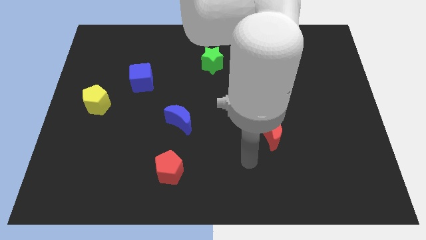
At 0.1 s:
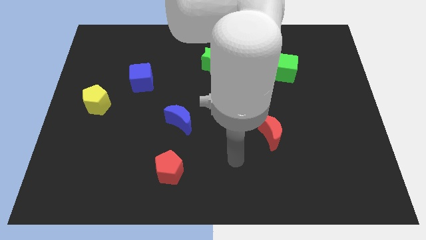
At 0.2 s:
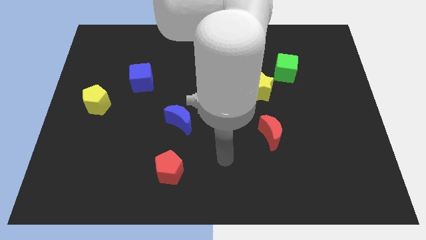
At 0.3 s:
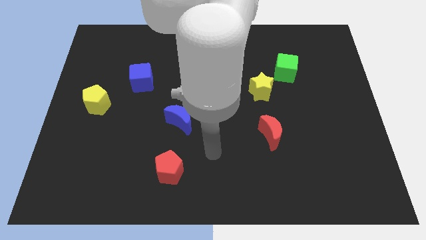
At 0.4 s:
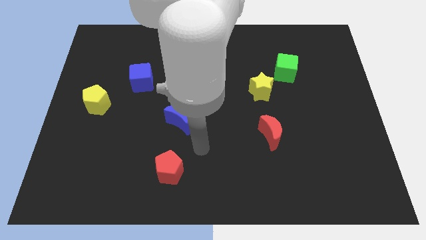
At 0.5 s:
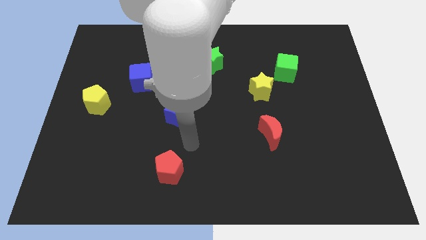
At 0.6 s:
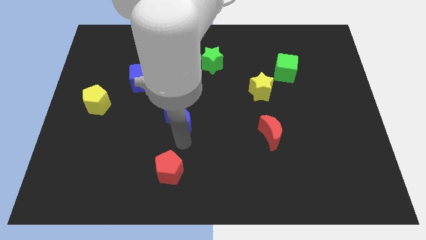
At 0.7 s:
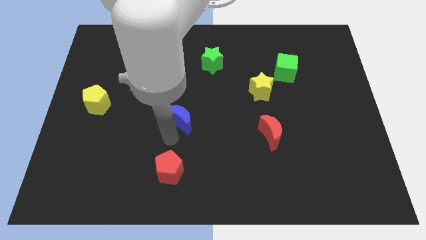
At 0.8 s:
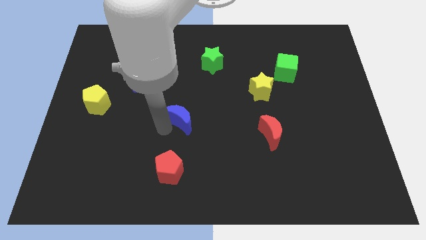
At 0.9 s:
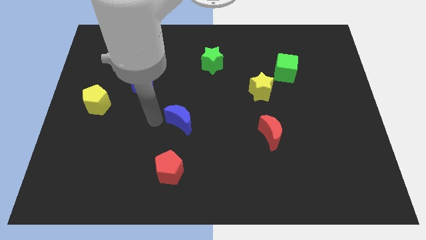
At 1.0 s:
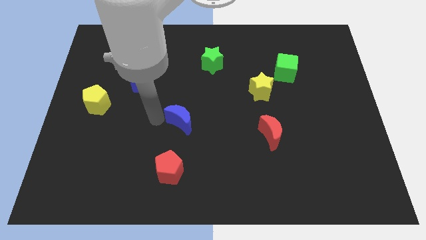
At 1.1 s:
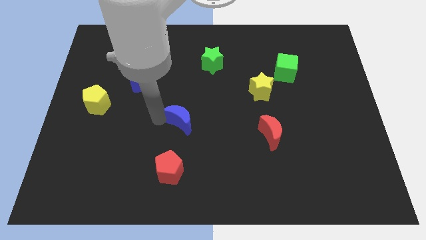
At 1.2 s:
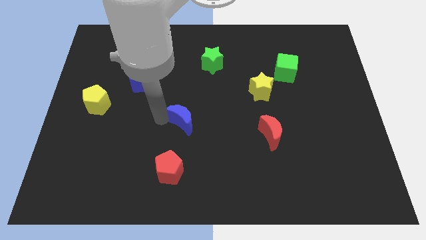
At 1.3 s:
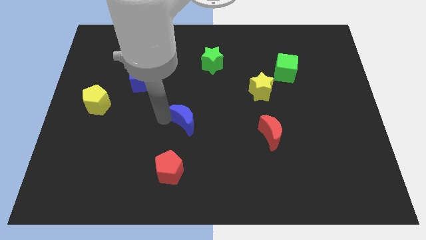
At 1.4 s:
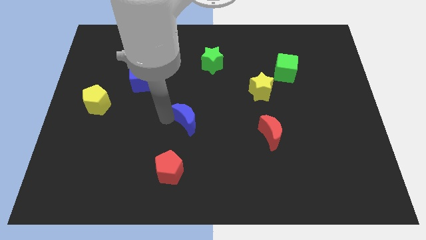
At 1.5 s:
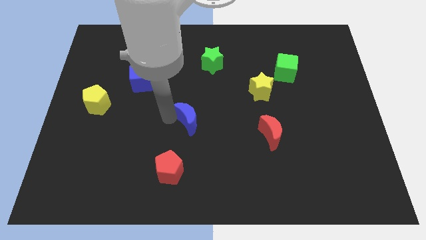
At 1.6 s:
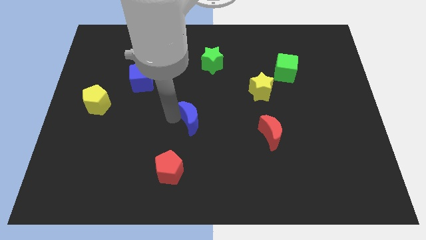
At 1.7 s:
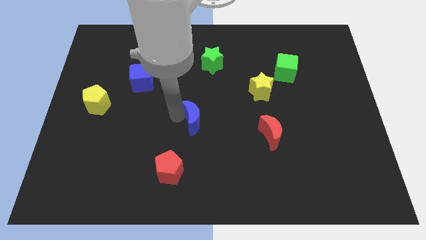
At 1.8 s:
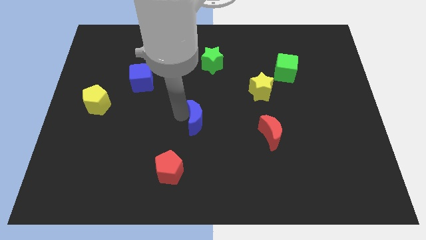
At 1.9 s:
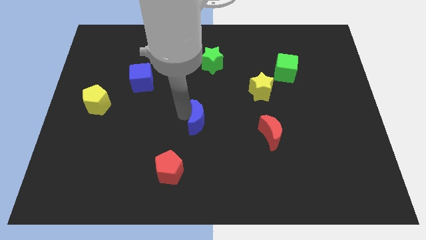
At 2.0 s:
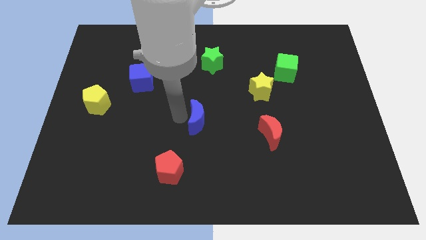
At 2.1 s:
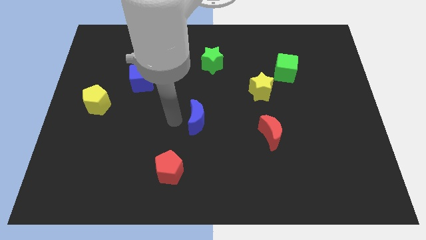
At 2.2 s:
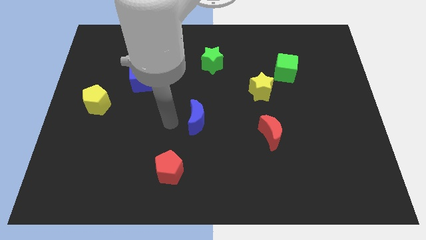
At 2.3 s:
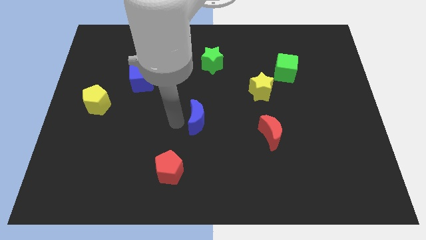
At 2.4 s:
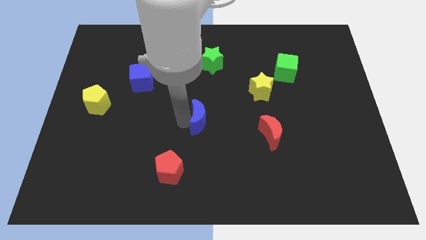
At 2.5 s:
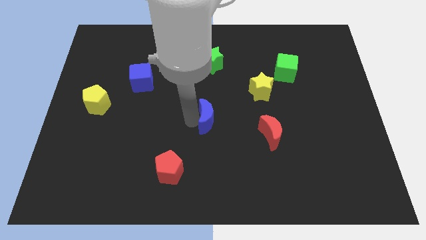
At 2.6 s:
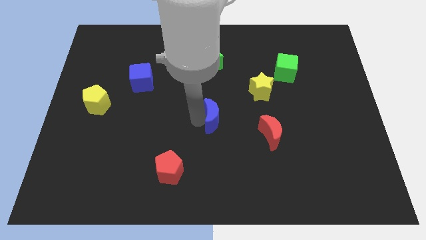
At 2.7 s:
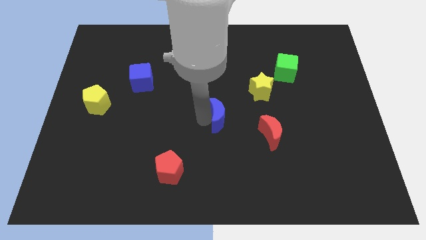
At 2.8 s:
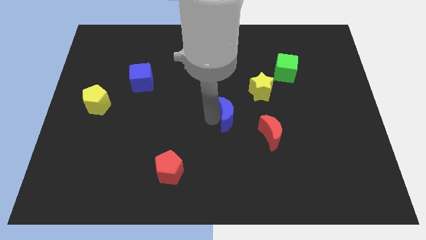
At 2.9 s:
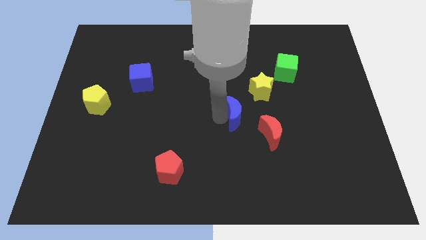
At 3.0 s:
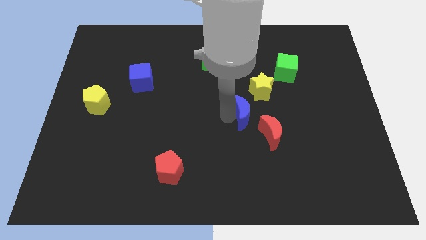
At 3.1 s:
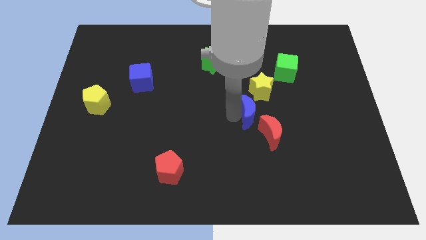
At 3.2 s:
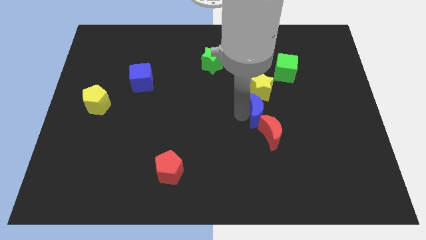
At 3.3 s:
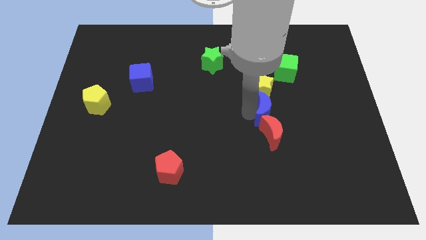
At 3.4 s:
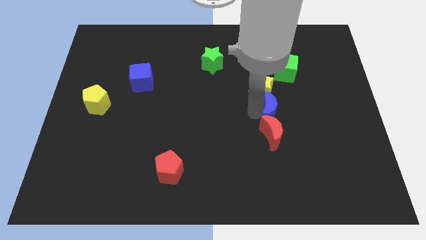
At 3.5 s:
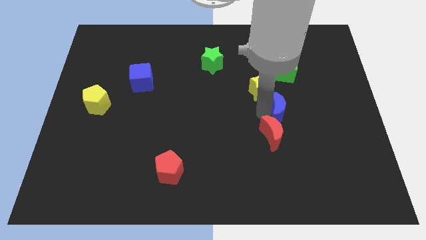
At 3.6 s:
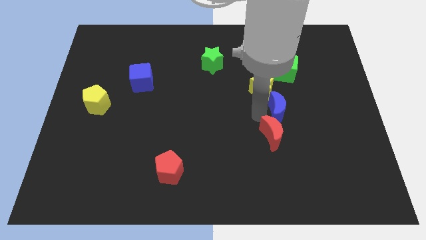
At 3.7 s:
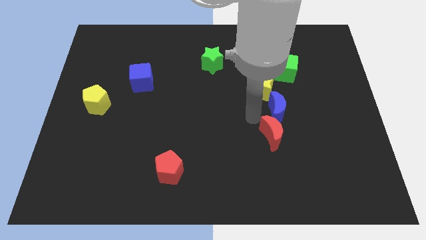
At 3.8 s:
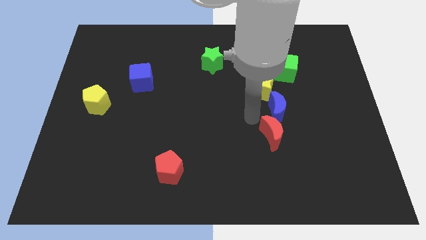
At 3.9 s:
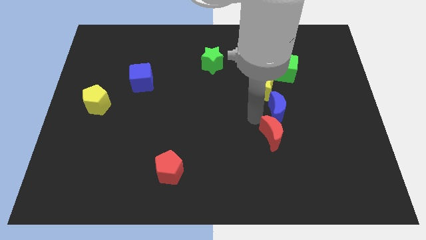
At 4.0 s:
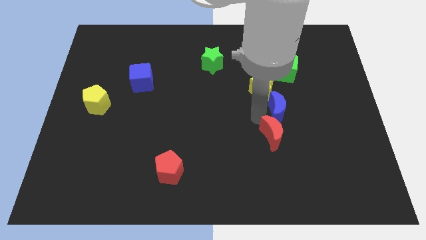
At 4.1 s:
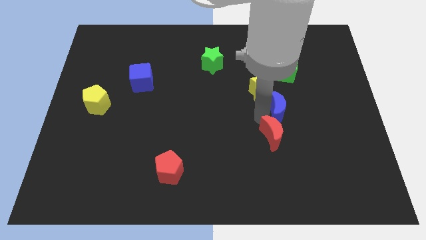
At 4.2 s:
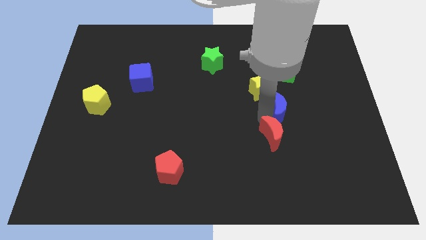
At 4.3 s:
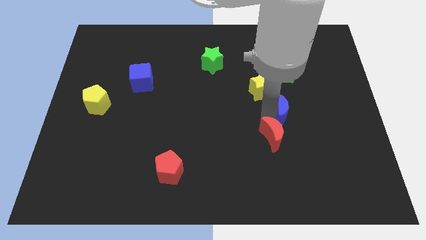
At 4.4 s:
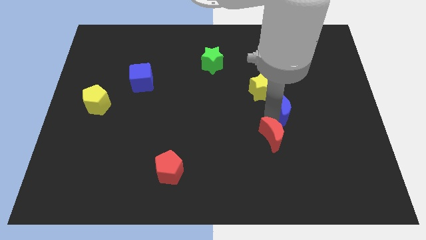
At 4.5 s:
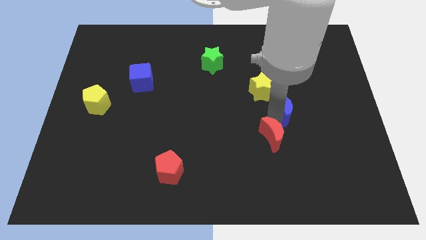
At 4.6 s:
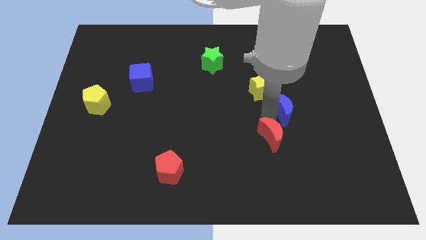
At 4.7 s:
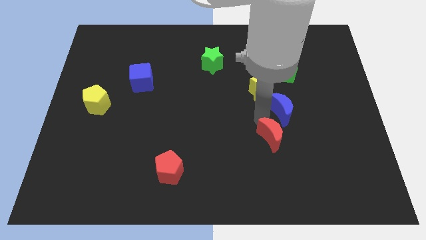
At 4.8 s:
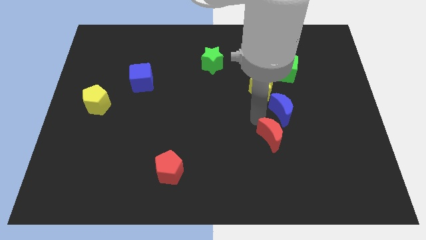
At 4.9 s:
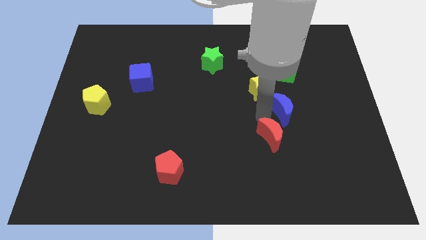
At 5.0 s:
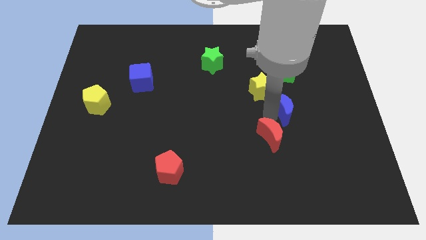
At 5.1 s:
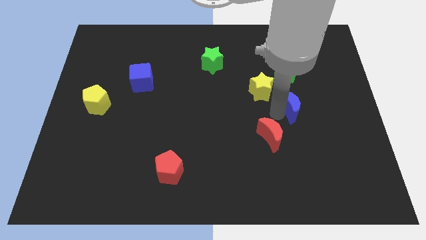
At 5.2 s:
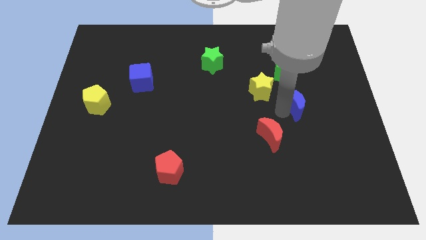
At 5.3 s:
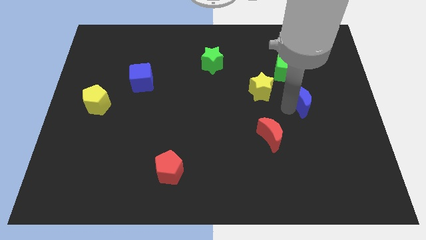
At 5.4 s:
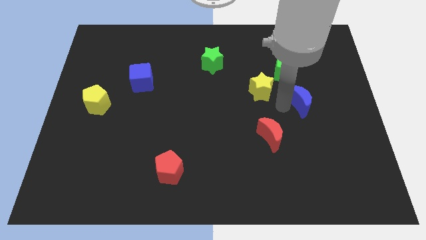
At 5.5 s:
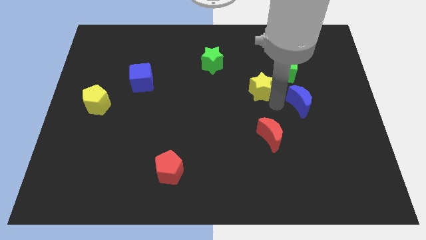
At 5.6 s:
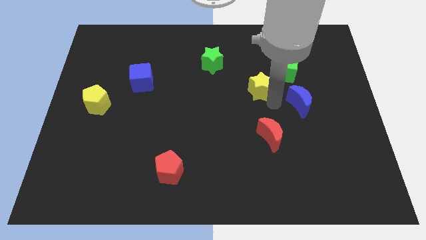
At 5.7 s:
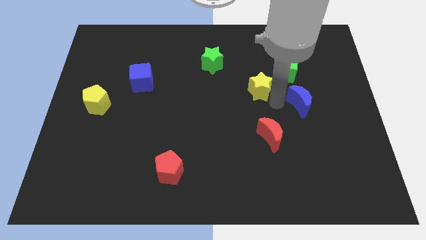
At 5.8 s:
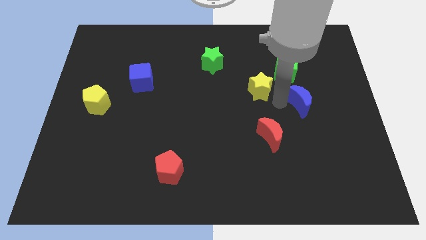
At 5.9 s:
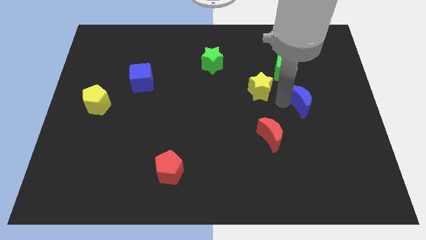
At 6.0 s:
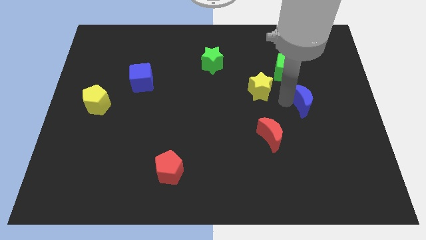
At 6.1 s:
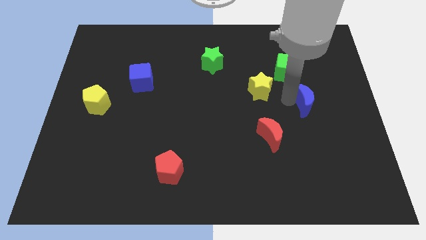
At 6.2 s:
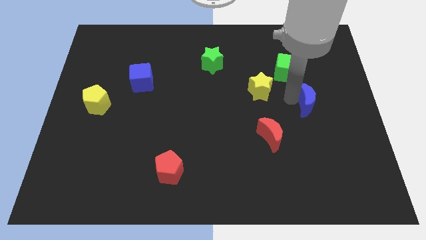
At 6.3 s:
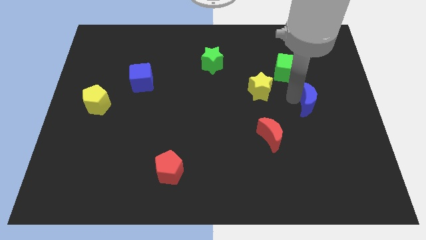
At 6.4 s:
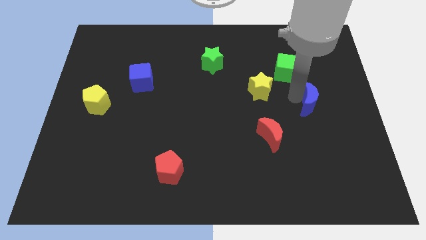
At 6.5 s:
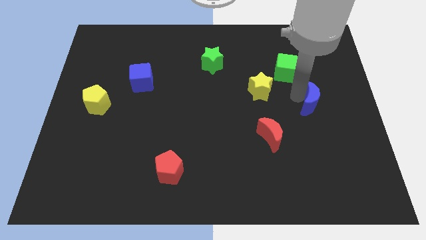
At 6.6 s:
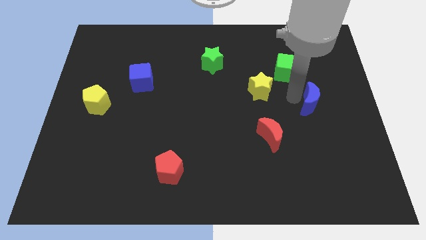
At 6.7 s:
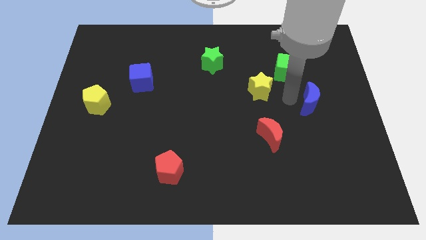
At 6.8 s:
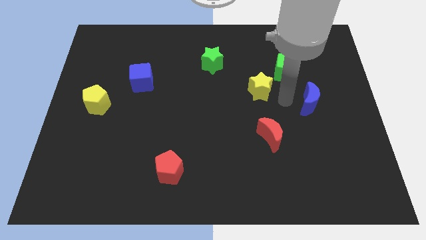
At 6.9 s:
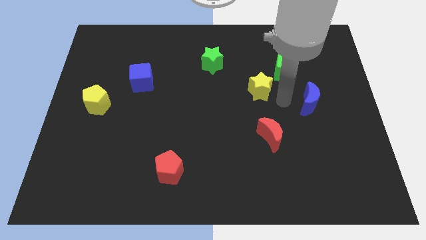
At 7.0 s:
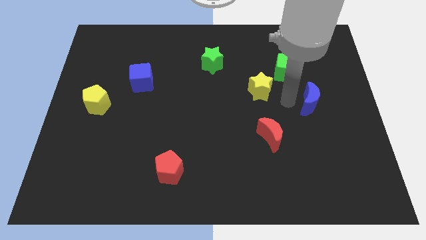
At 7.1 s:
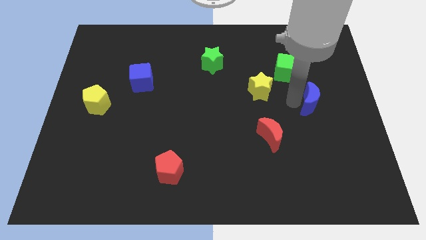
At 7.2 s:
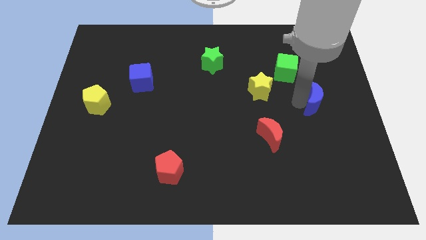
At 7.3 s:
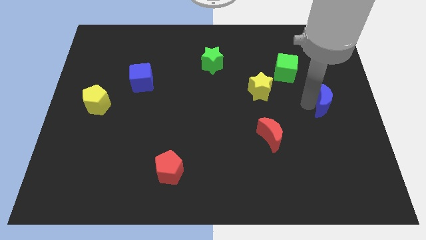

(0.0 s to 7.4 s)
put the blue moon to the center right

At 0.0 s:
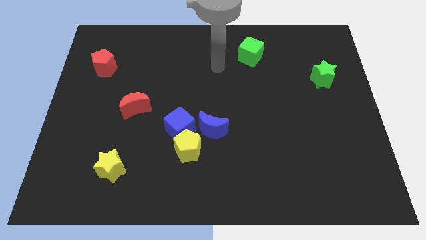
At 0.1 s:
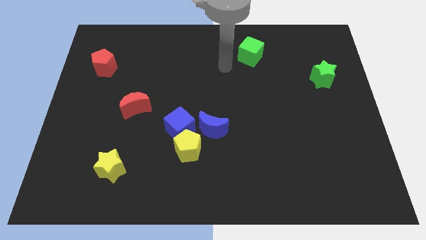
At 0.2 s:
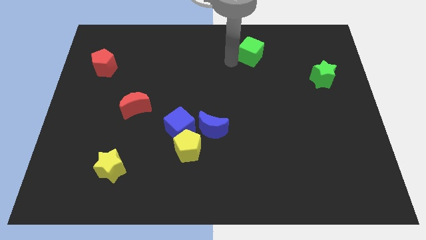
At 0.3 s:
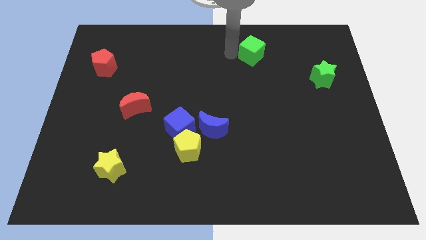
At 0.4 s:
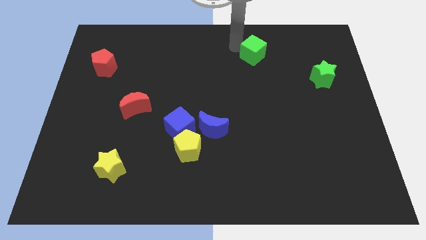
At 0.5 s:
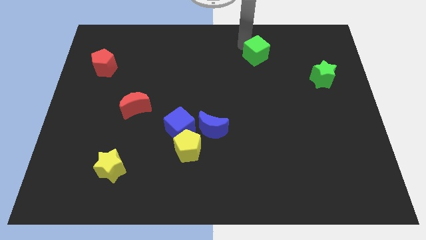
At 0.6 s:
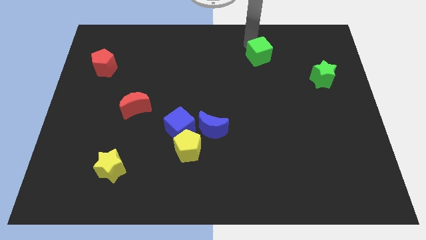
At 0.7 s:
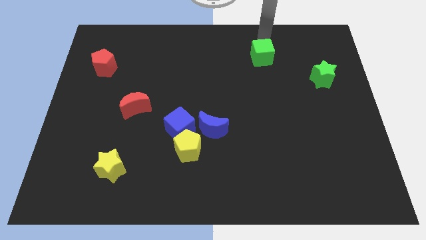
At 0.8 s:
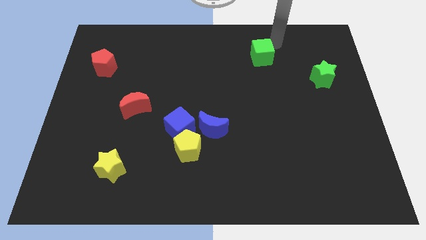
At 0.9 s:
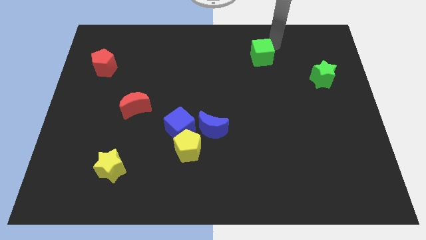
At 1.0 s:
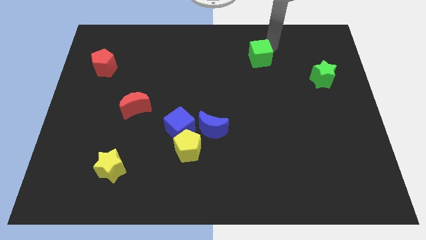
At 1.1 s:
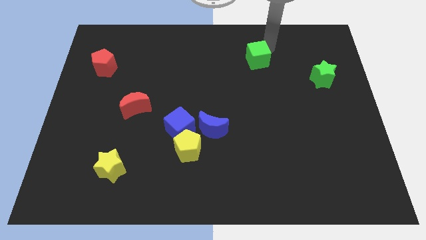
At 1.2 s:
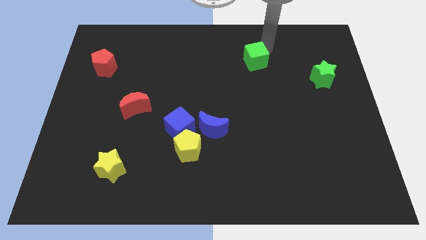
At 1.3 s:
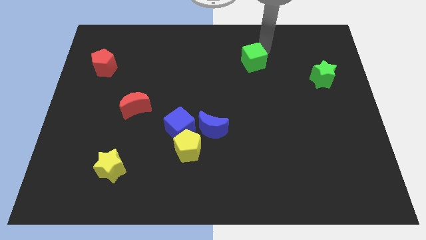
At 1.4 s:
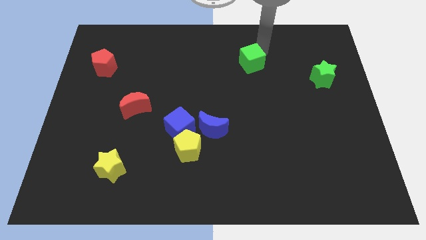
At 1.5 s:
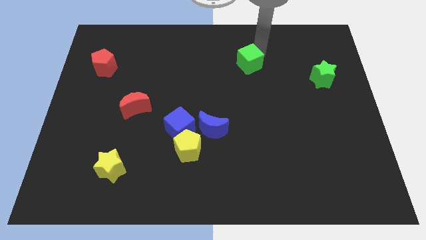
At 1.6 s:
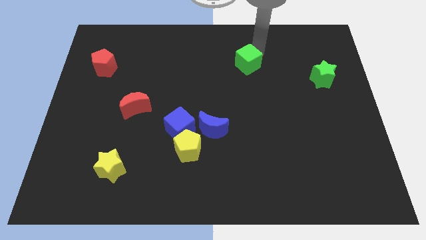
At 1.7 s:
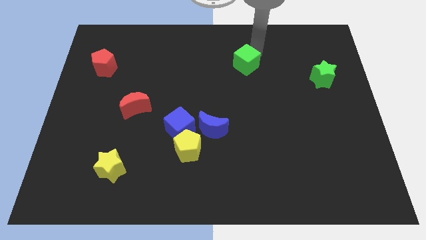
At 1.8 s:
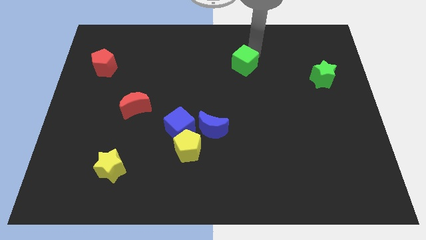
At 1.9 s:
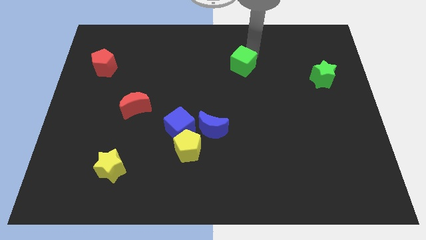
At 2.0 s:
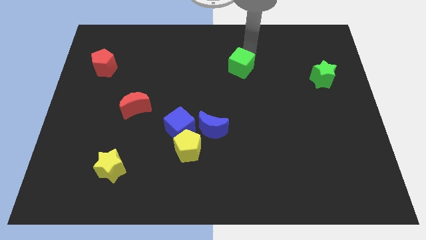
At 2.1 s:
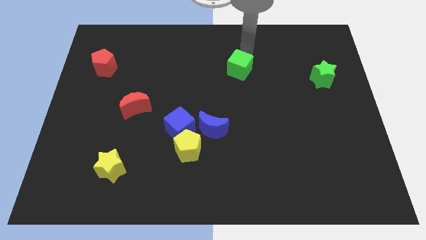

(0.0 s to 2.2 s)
push the green cube to the center
